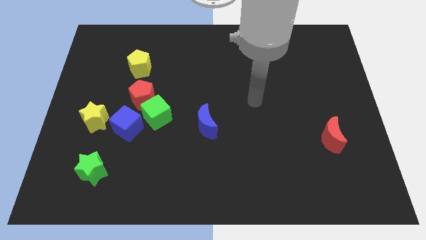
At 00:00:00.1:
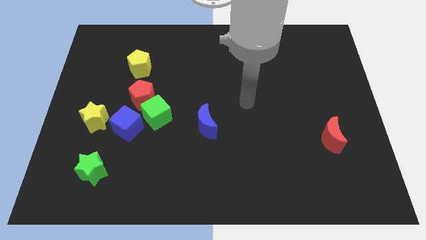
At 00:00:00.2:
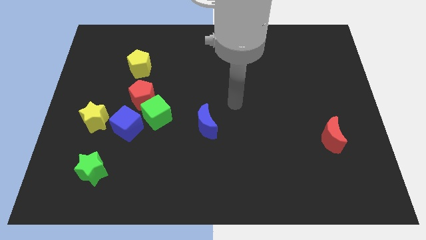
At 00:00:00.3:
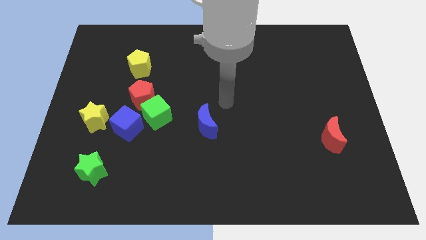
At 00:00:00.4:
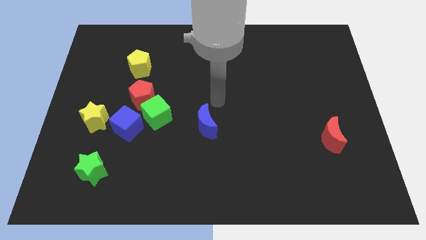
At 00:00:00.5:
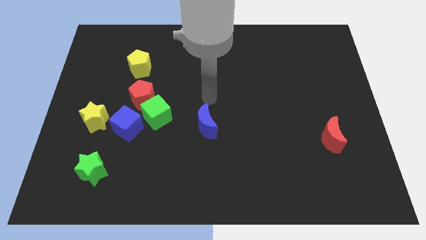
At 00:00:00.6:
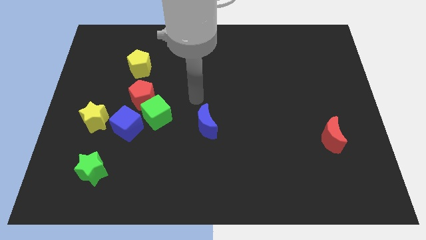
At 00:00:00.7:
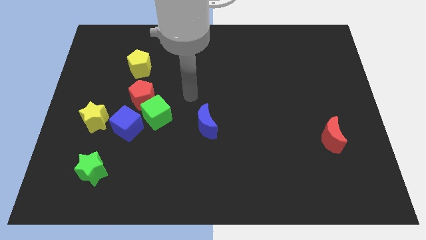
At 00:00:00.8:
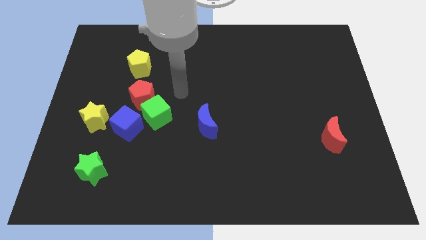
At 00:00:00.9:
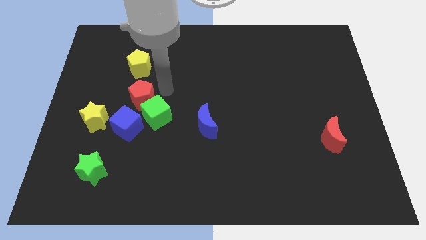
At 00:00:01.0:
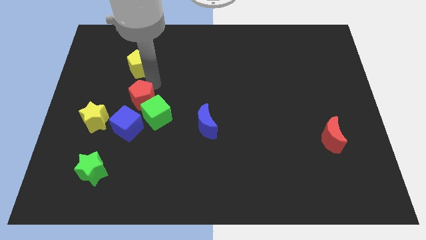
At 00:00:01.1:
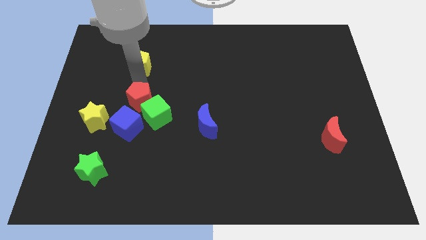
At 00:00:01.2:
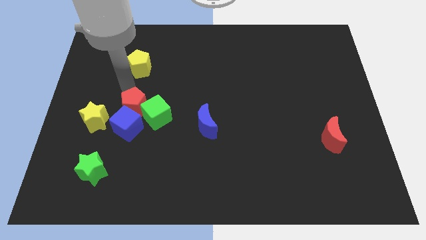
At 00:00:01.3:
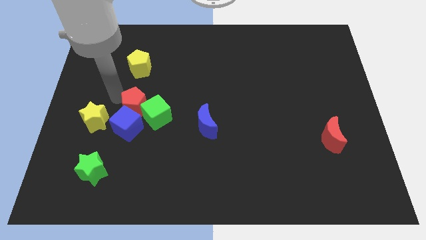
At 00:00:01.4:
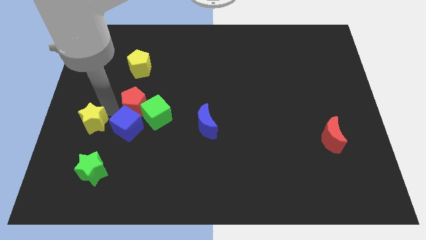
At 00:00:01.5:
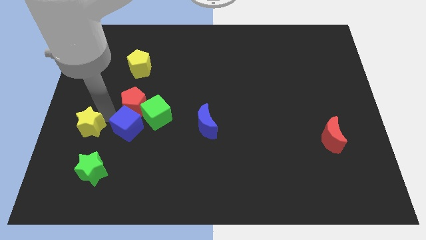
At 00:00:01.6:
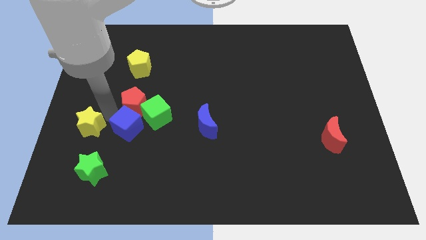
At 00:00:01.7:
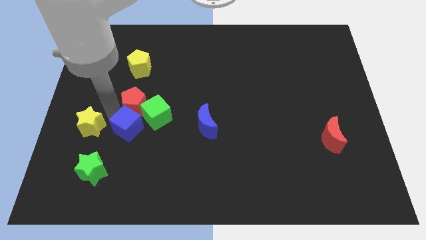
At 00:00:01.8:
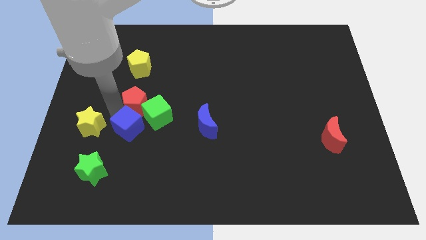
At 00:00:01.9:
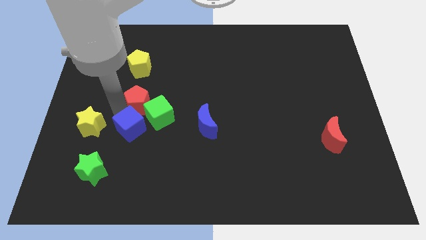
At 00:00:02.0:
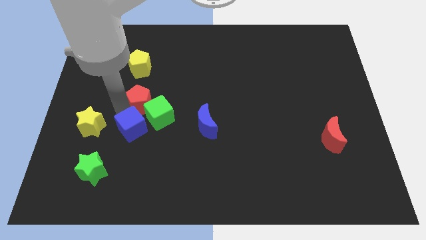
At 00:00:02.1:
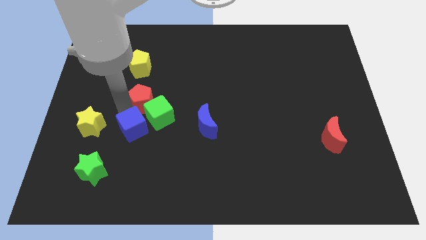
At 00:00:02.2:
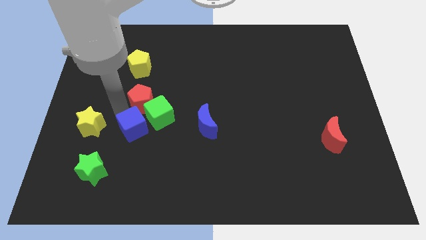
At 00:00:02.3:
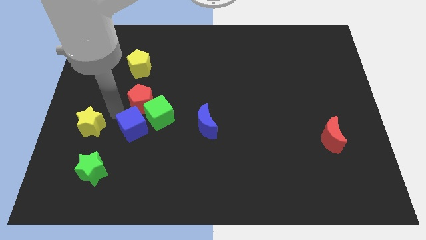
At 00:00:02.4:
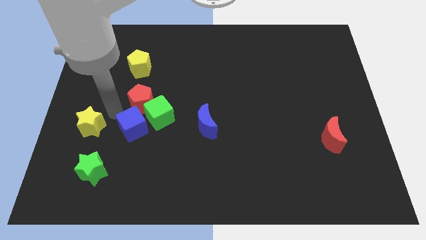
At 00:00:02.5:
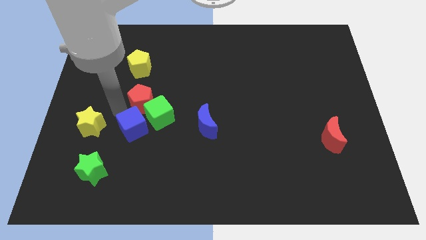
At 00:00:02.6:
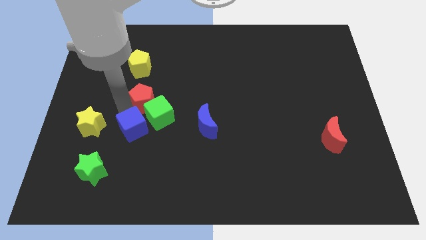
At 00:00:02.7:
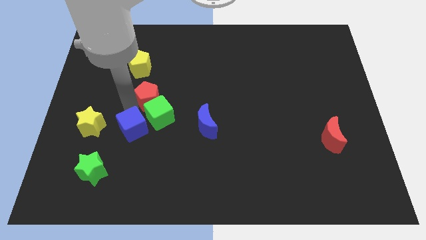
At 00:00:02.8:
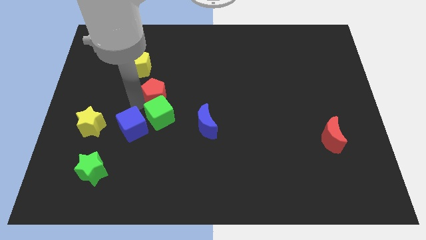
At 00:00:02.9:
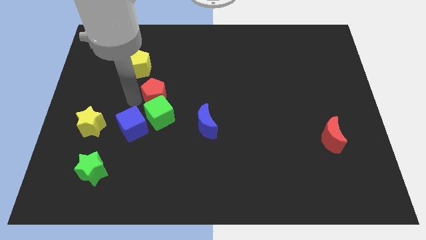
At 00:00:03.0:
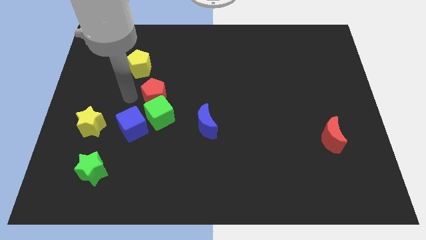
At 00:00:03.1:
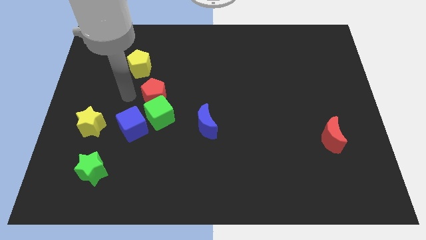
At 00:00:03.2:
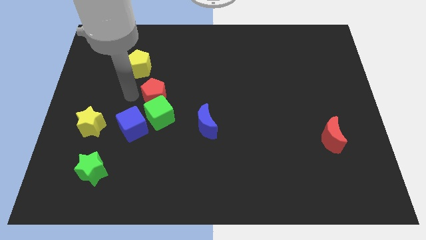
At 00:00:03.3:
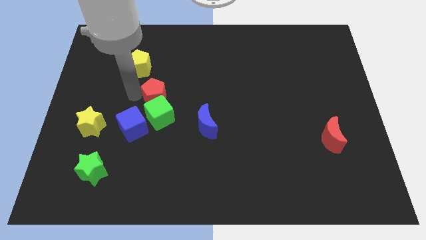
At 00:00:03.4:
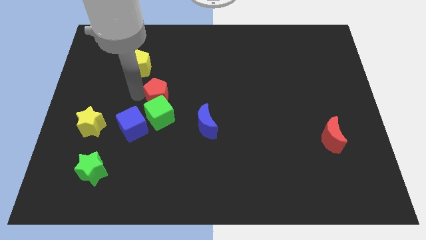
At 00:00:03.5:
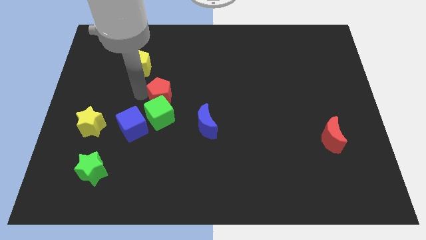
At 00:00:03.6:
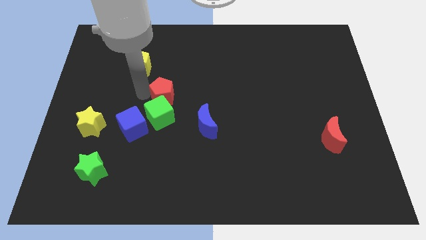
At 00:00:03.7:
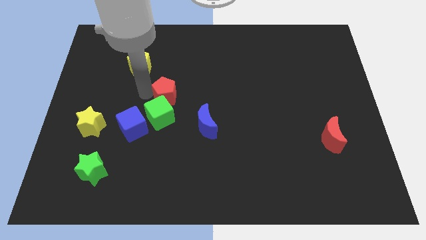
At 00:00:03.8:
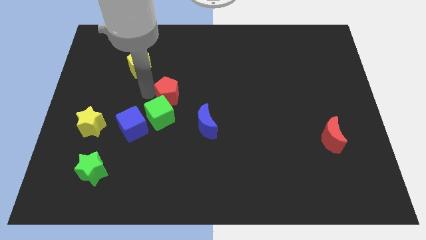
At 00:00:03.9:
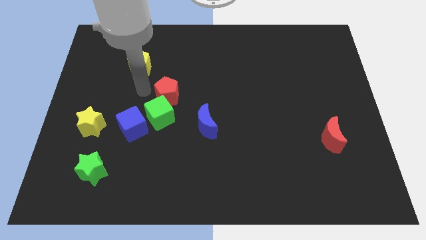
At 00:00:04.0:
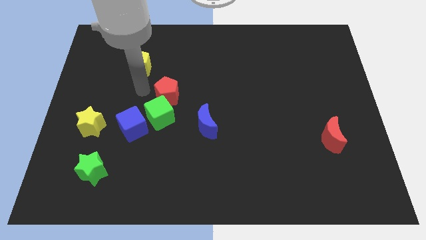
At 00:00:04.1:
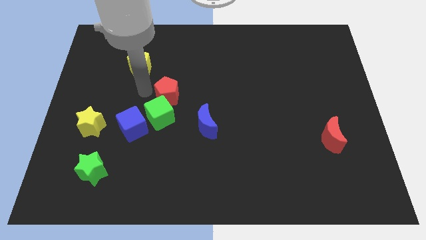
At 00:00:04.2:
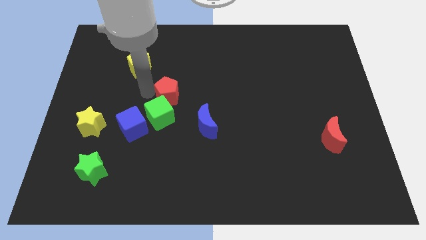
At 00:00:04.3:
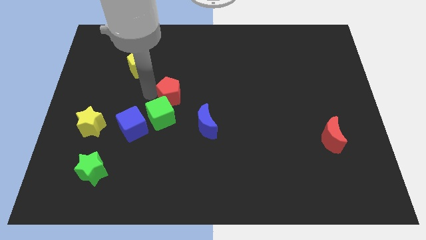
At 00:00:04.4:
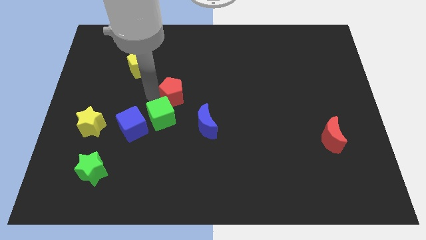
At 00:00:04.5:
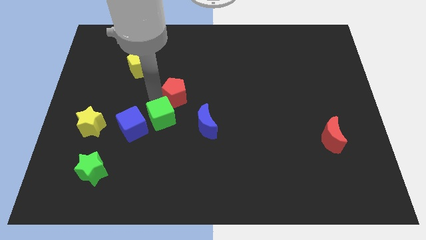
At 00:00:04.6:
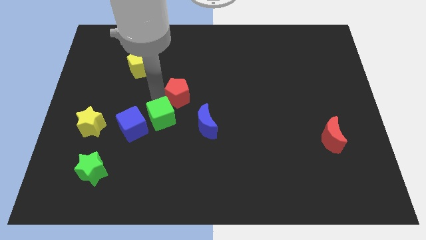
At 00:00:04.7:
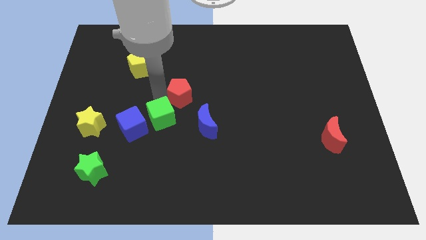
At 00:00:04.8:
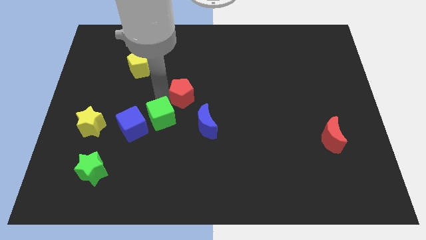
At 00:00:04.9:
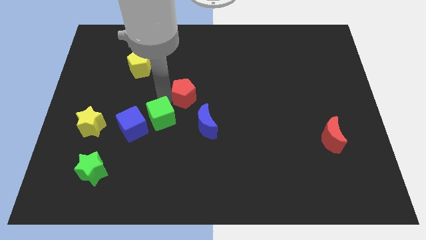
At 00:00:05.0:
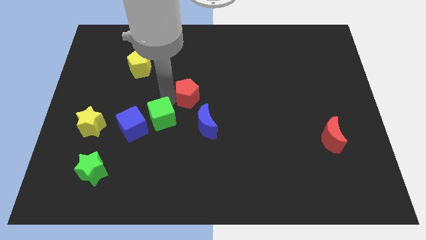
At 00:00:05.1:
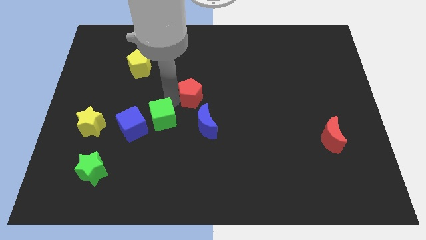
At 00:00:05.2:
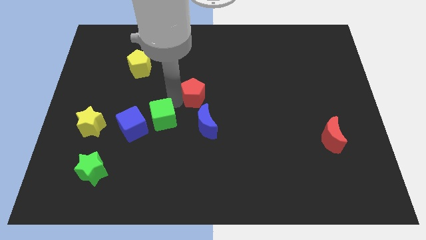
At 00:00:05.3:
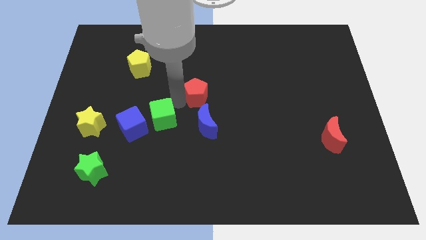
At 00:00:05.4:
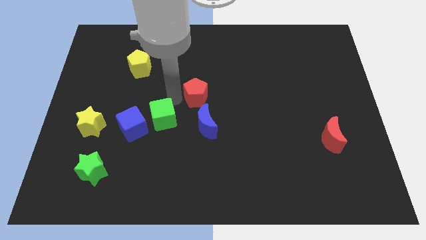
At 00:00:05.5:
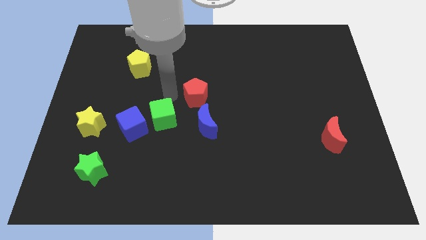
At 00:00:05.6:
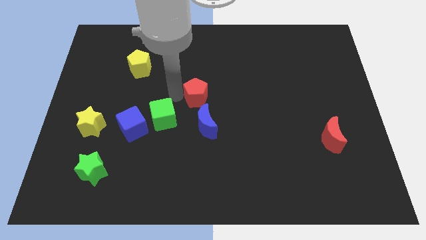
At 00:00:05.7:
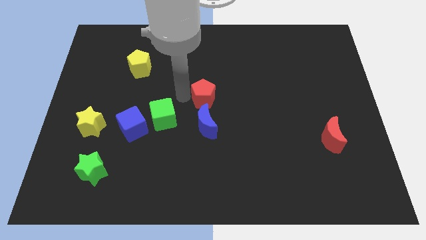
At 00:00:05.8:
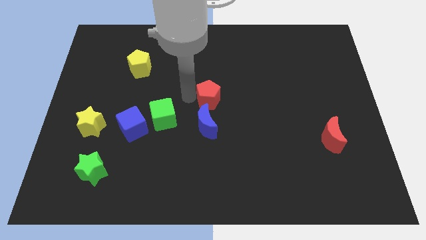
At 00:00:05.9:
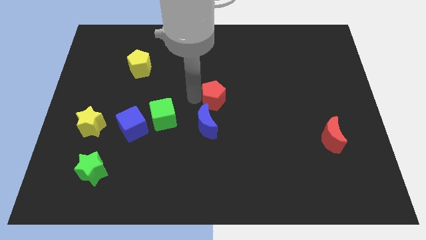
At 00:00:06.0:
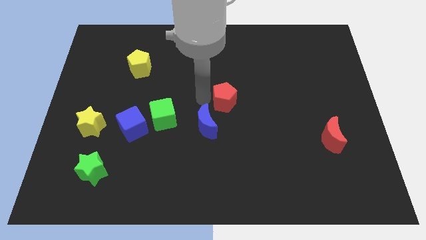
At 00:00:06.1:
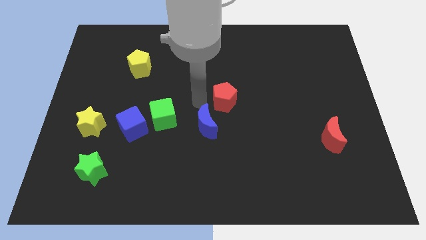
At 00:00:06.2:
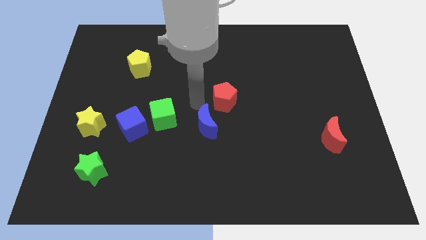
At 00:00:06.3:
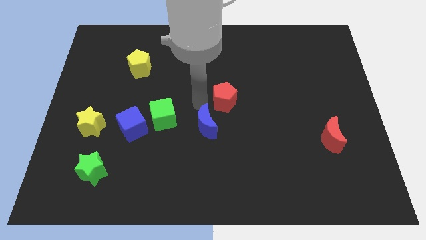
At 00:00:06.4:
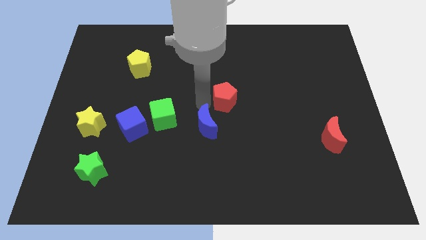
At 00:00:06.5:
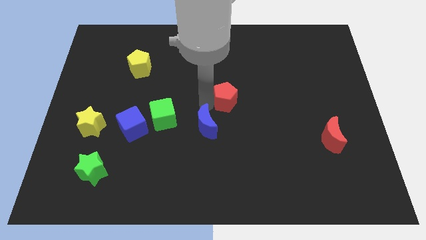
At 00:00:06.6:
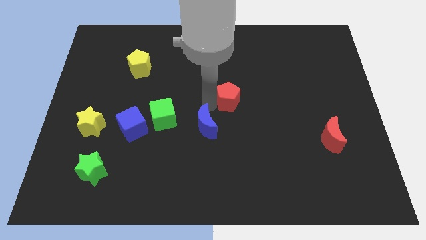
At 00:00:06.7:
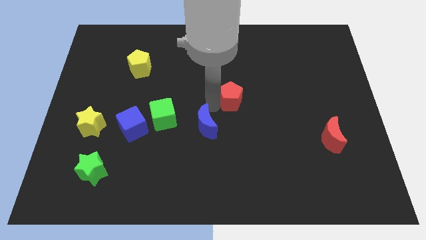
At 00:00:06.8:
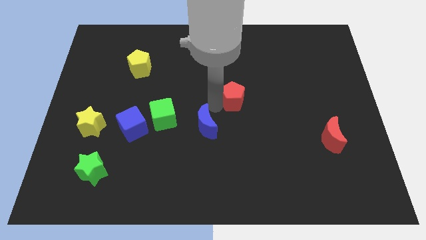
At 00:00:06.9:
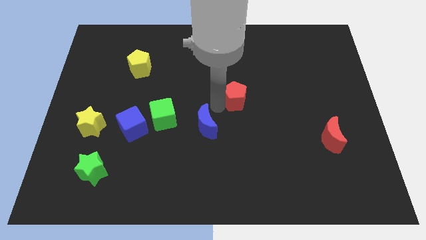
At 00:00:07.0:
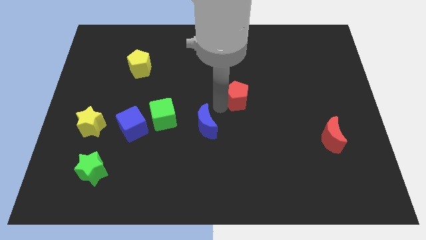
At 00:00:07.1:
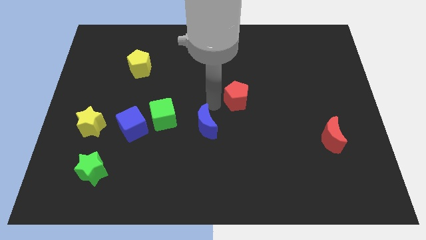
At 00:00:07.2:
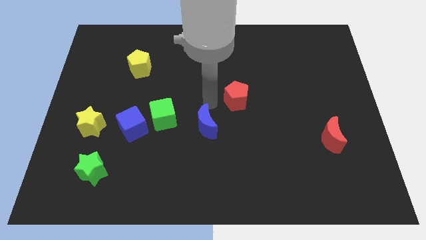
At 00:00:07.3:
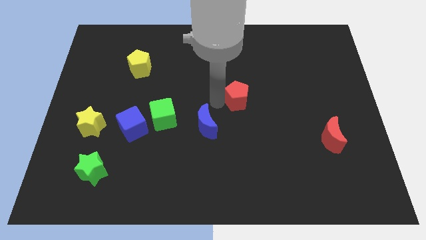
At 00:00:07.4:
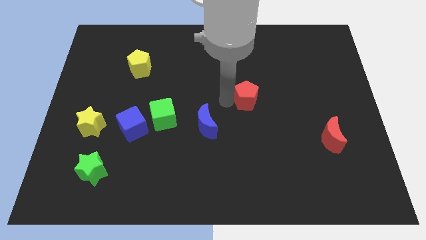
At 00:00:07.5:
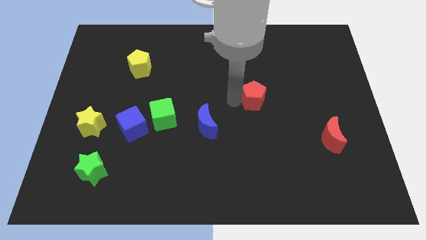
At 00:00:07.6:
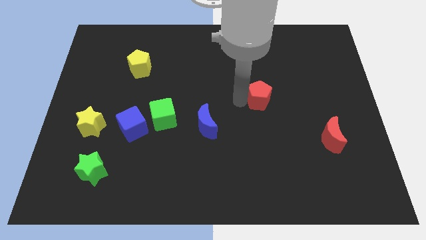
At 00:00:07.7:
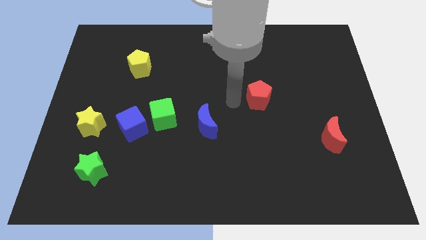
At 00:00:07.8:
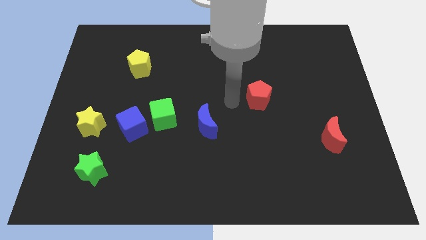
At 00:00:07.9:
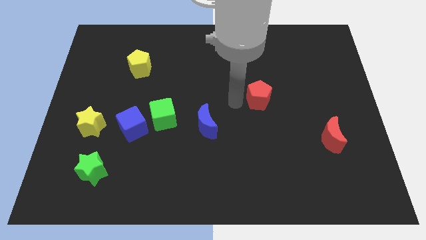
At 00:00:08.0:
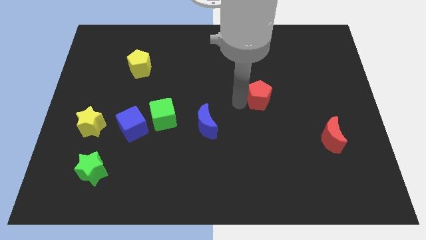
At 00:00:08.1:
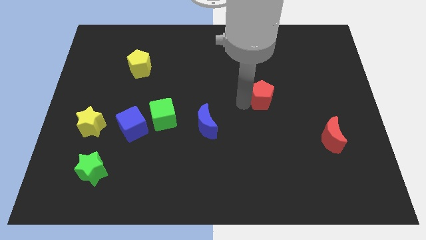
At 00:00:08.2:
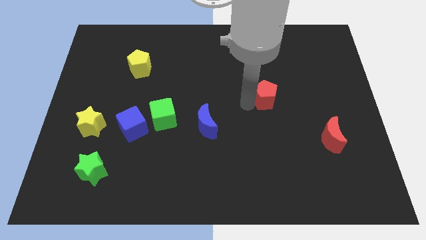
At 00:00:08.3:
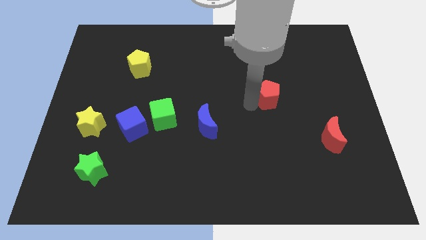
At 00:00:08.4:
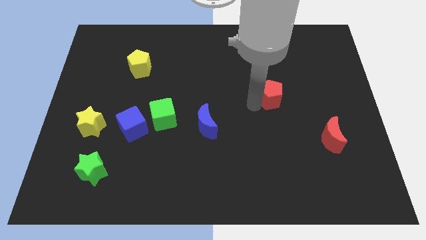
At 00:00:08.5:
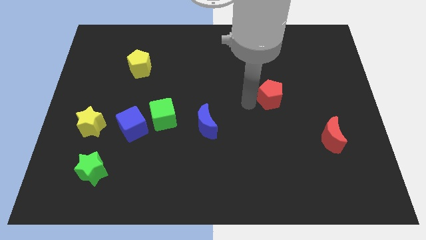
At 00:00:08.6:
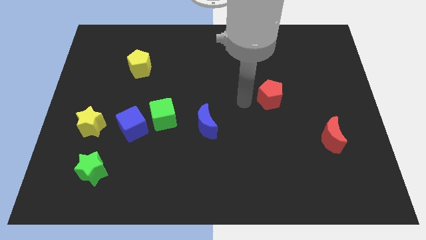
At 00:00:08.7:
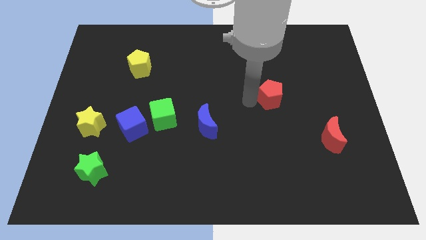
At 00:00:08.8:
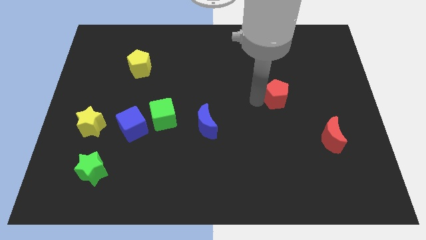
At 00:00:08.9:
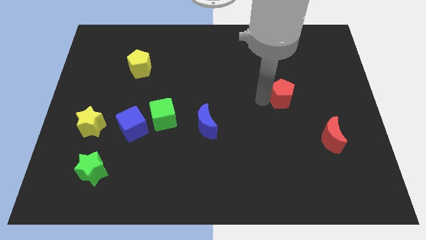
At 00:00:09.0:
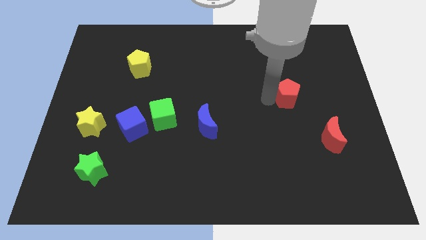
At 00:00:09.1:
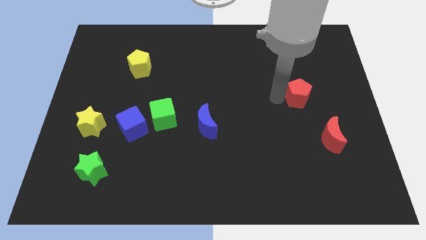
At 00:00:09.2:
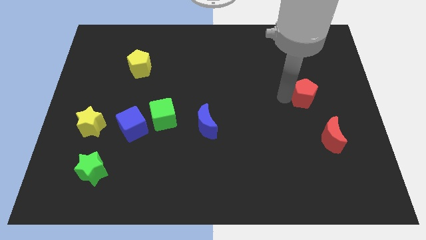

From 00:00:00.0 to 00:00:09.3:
move the red pentagon above the red moon
